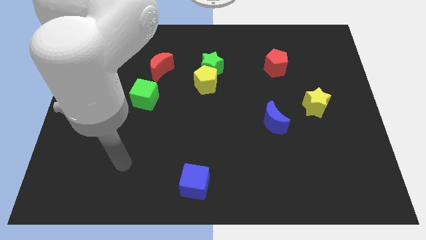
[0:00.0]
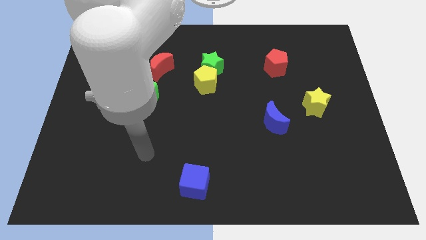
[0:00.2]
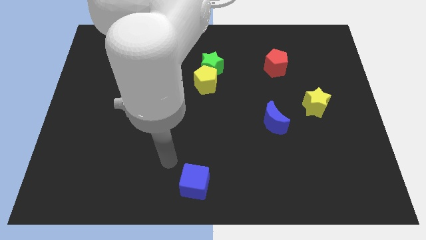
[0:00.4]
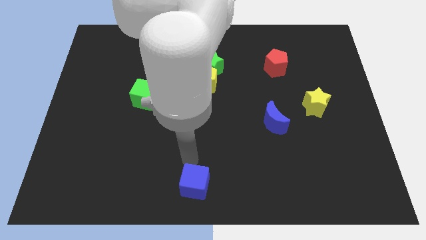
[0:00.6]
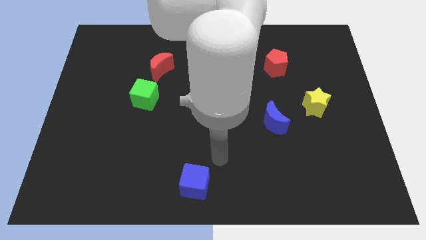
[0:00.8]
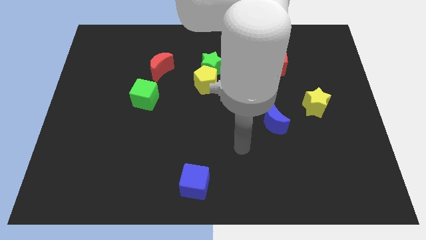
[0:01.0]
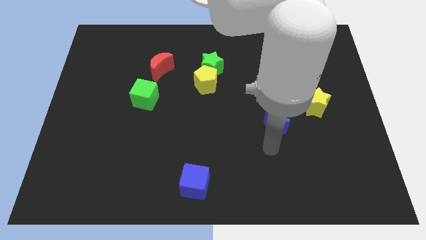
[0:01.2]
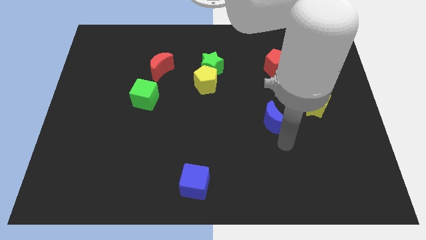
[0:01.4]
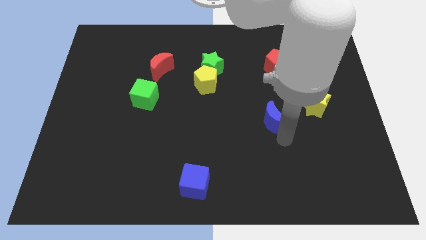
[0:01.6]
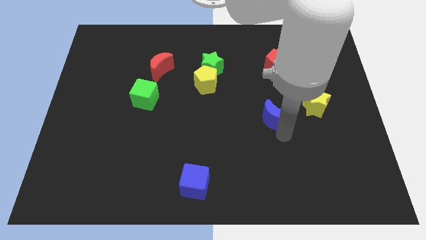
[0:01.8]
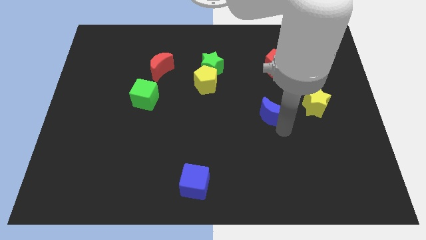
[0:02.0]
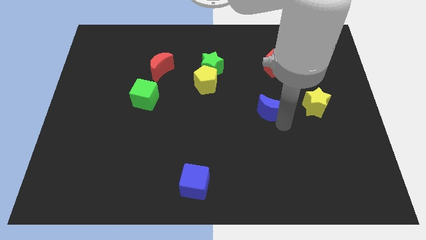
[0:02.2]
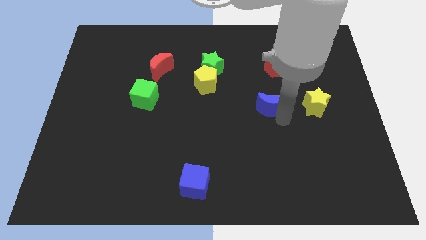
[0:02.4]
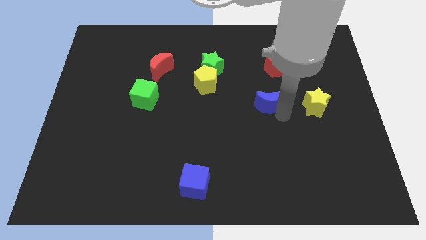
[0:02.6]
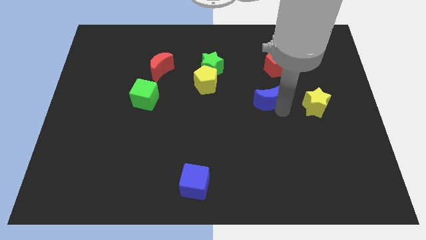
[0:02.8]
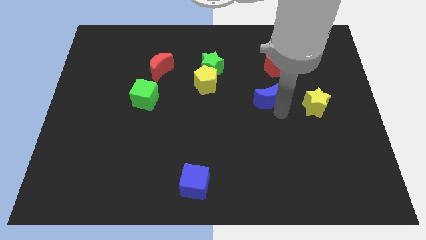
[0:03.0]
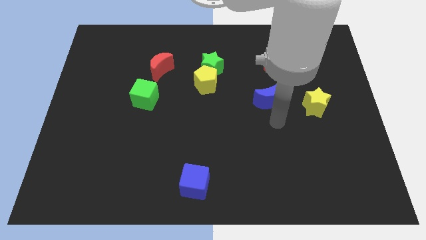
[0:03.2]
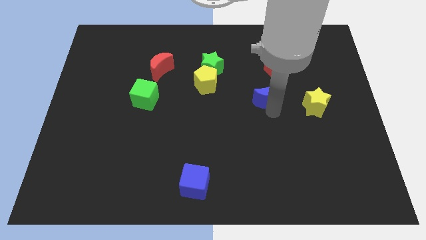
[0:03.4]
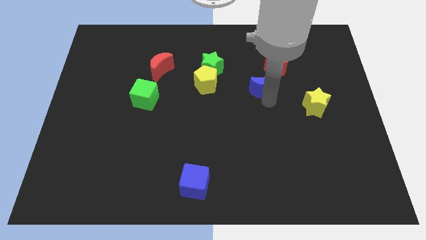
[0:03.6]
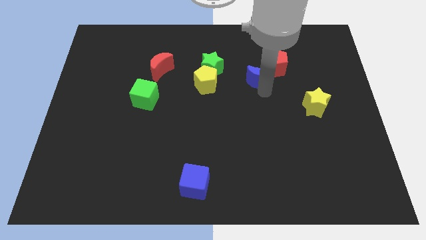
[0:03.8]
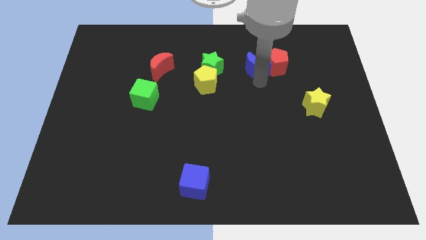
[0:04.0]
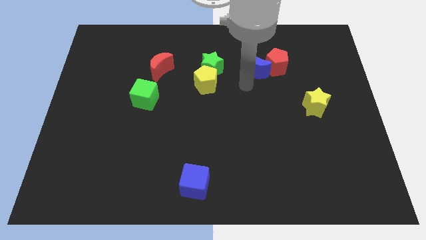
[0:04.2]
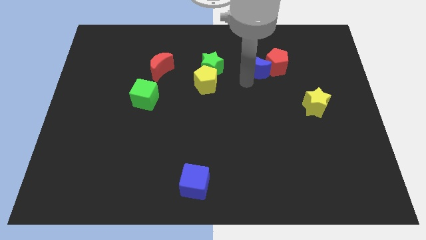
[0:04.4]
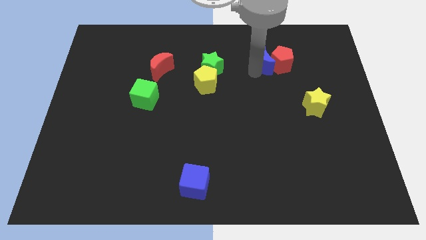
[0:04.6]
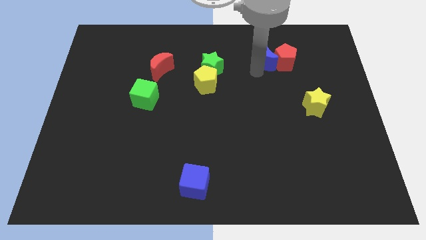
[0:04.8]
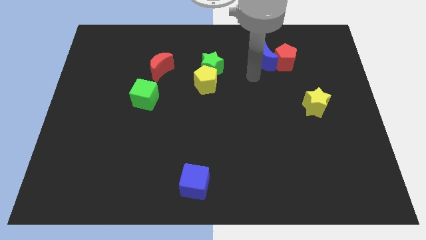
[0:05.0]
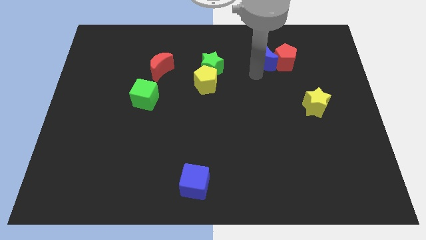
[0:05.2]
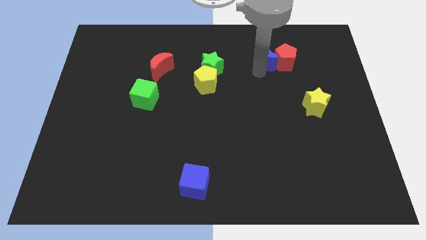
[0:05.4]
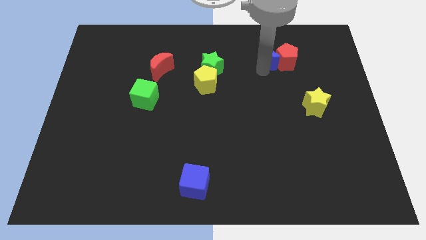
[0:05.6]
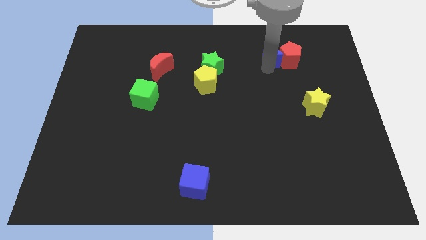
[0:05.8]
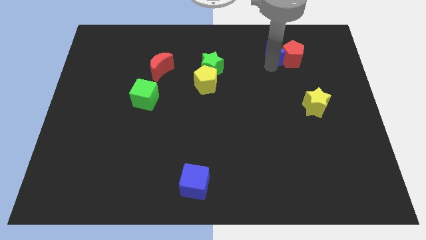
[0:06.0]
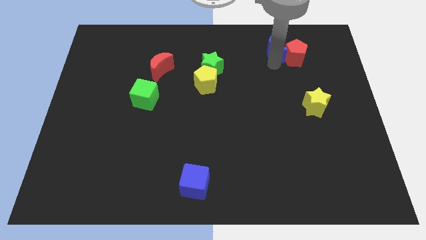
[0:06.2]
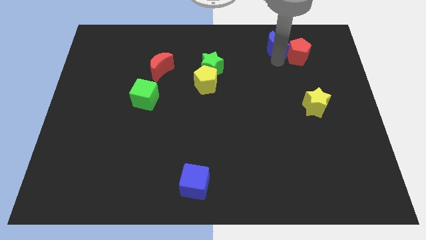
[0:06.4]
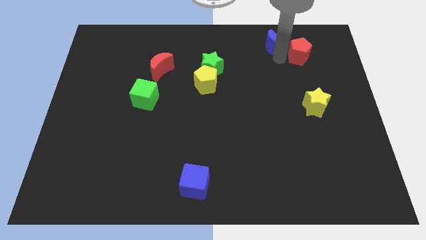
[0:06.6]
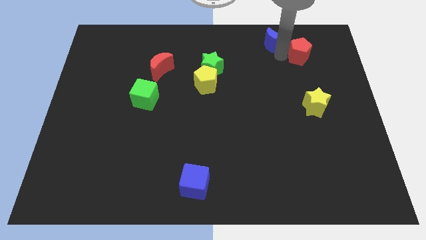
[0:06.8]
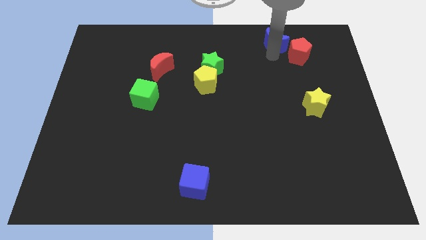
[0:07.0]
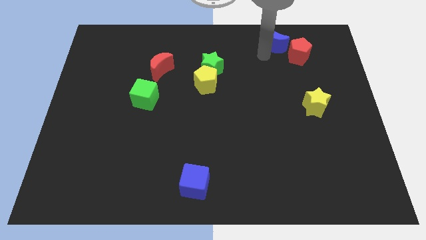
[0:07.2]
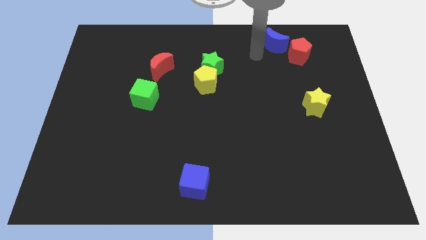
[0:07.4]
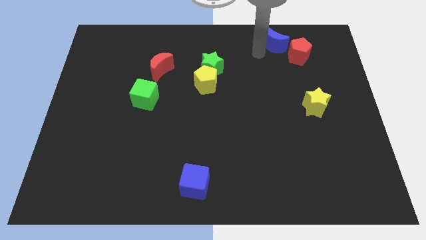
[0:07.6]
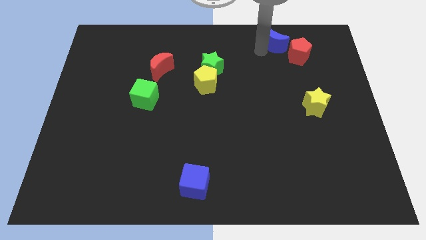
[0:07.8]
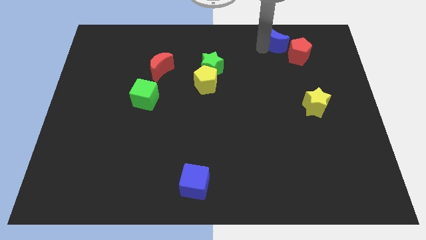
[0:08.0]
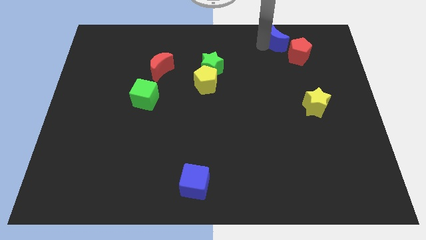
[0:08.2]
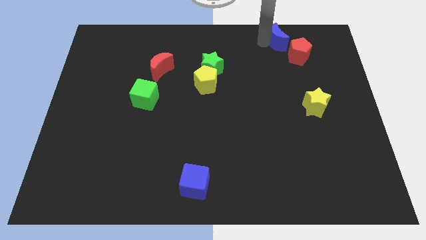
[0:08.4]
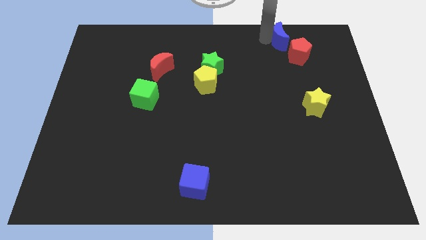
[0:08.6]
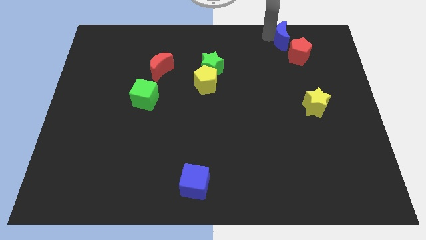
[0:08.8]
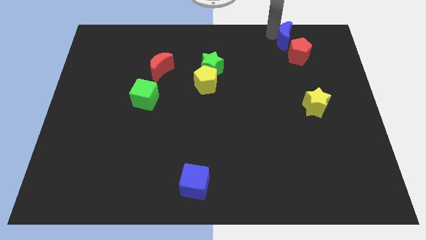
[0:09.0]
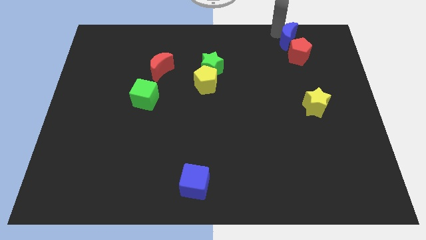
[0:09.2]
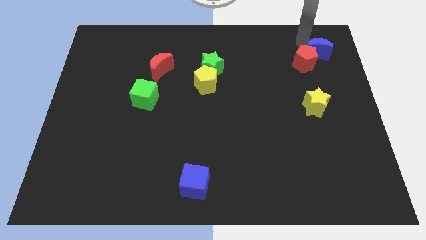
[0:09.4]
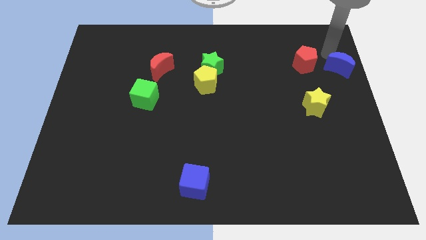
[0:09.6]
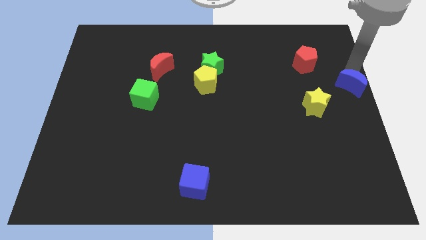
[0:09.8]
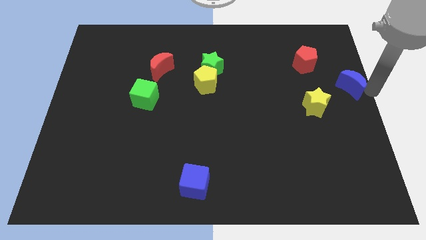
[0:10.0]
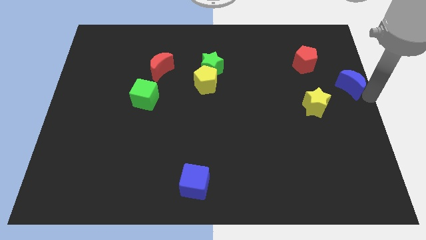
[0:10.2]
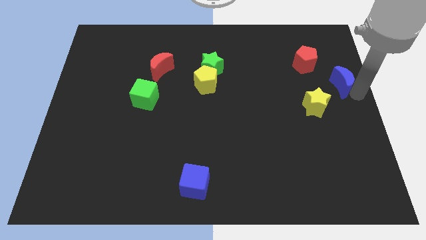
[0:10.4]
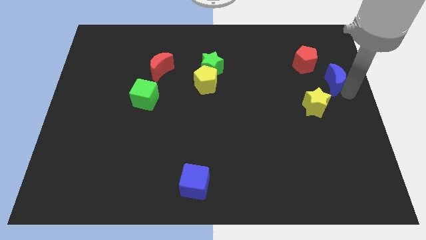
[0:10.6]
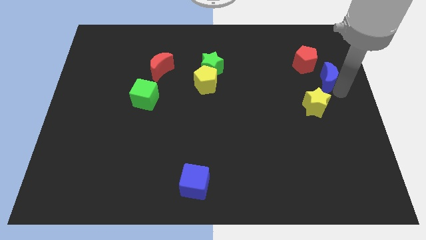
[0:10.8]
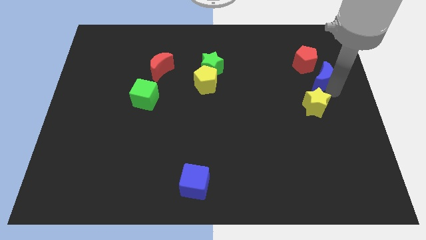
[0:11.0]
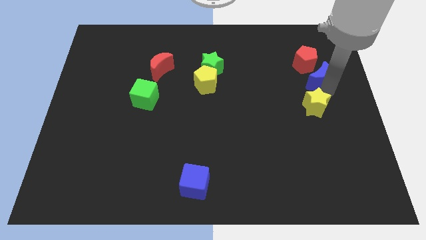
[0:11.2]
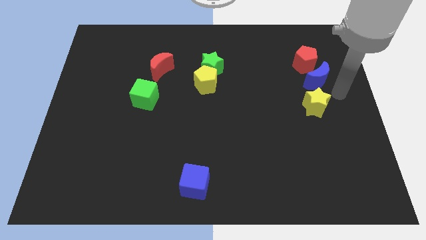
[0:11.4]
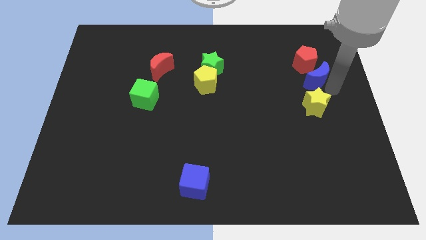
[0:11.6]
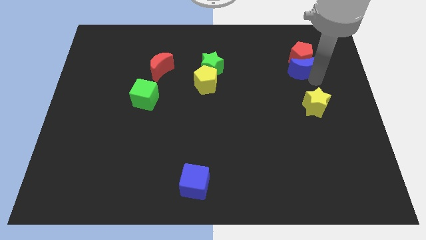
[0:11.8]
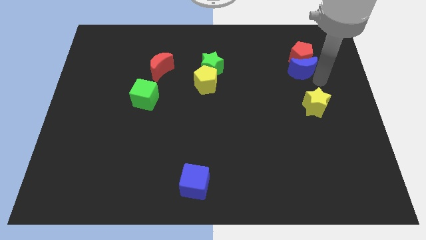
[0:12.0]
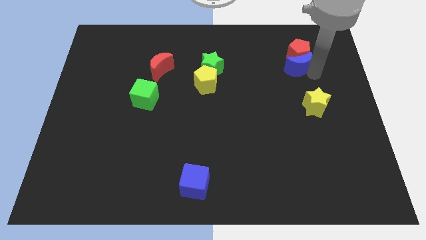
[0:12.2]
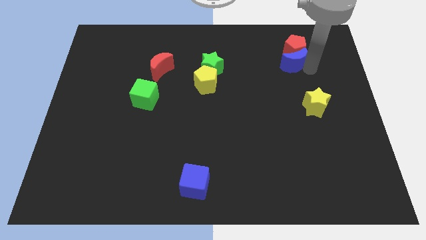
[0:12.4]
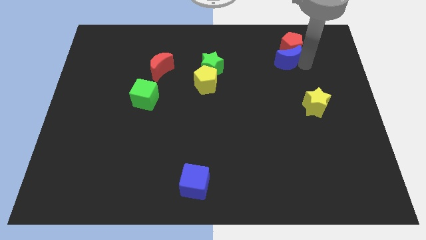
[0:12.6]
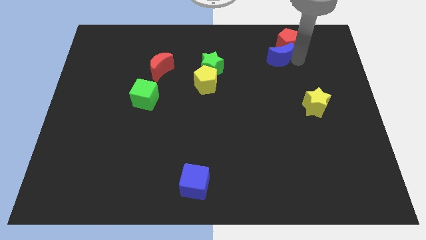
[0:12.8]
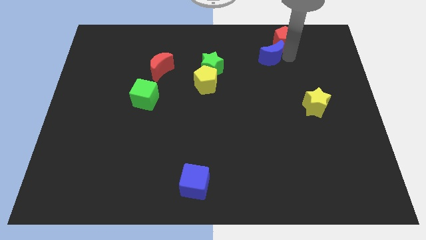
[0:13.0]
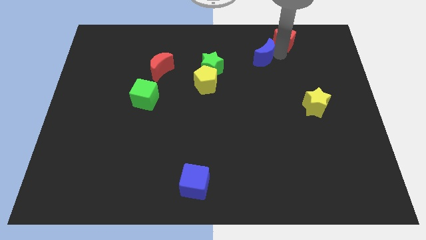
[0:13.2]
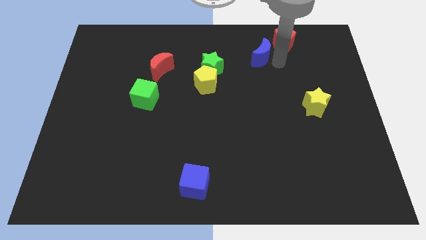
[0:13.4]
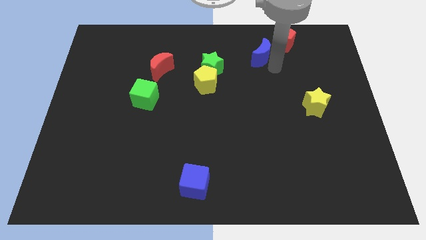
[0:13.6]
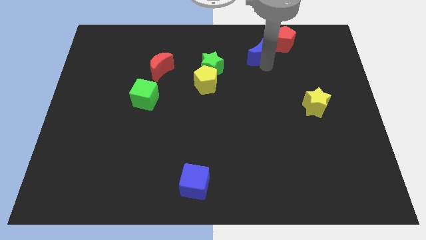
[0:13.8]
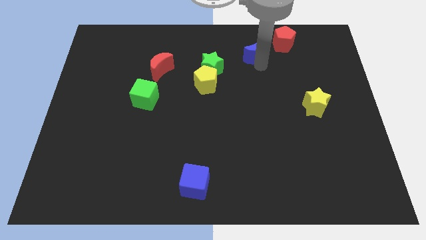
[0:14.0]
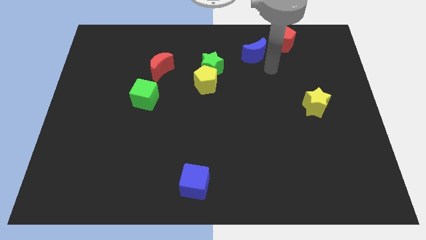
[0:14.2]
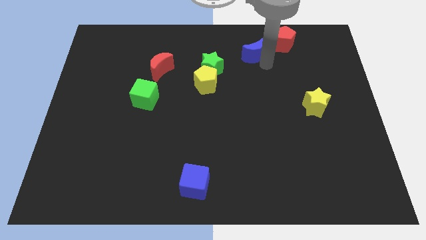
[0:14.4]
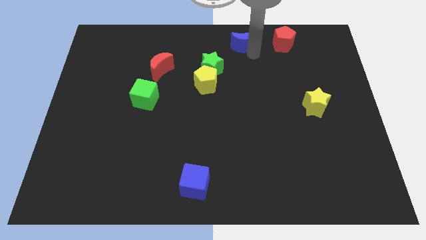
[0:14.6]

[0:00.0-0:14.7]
put the blue moon to the top side
